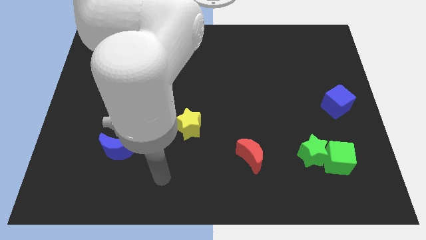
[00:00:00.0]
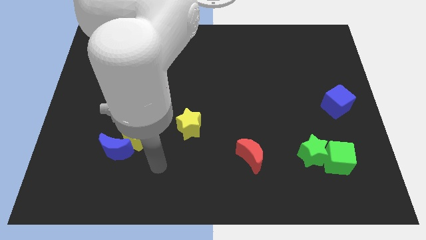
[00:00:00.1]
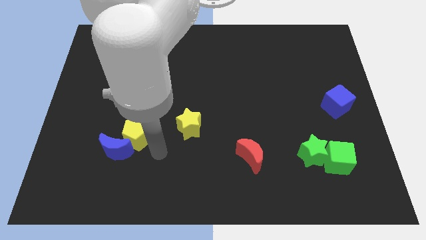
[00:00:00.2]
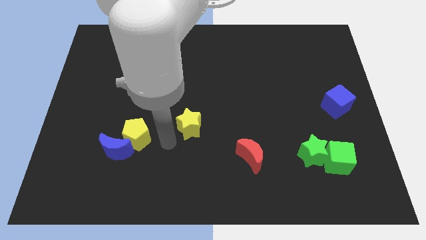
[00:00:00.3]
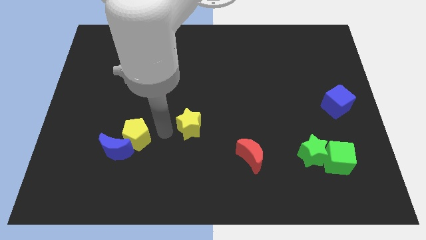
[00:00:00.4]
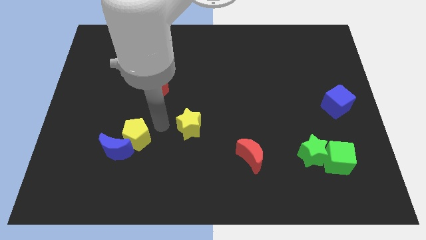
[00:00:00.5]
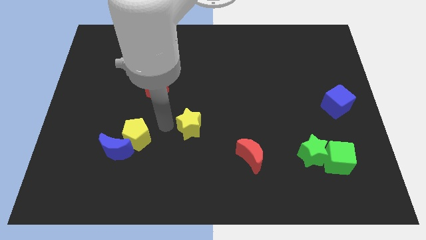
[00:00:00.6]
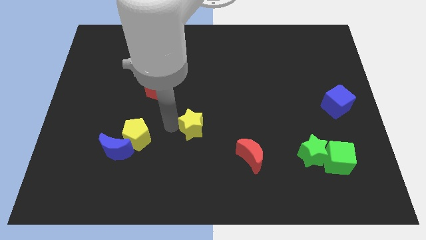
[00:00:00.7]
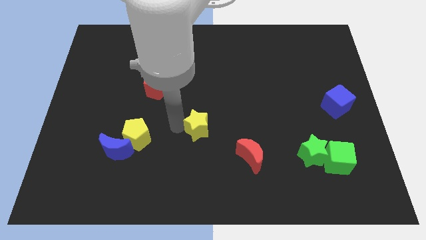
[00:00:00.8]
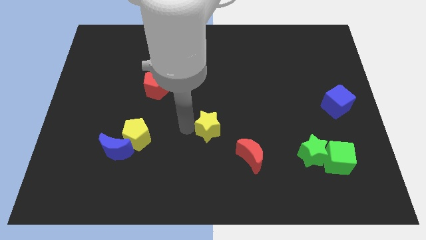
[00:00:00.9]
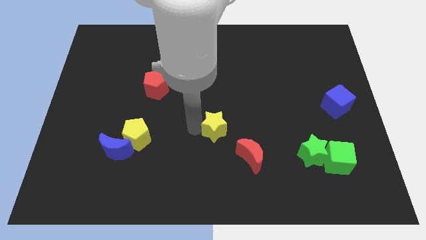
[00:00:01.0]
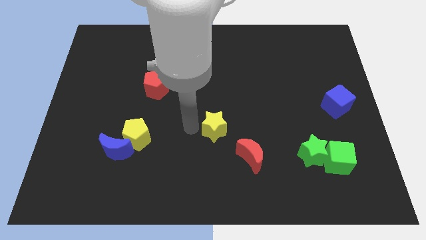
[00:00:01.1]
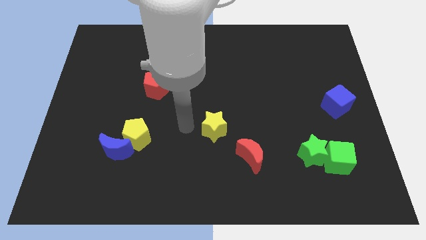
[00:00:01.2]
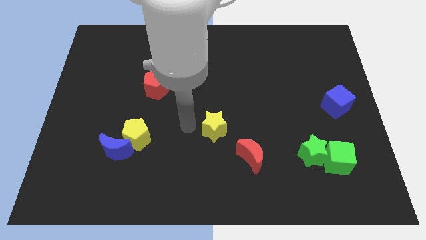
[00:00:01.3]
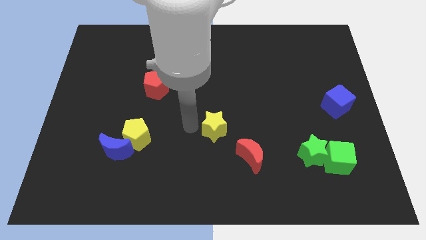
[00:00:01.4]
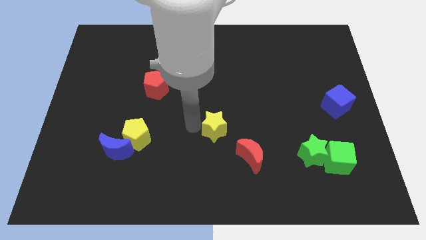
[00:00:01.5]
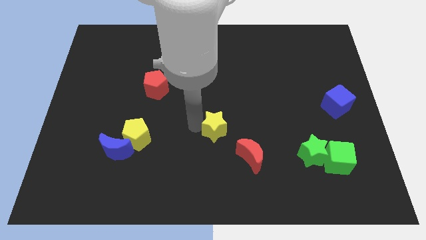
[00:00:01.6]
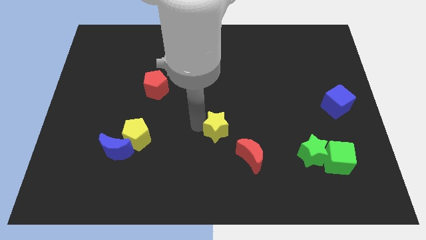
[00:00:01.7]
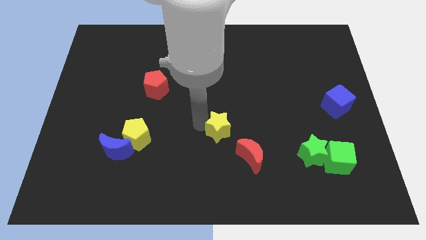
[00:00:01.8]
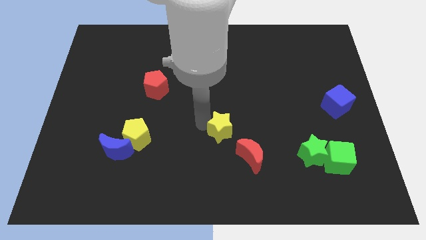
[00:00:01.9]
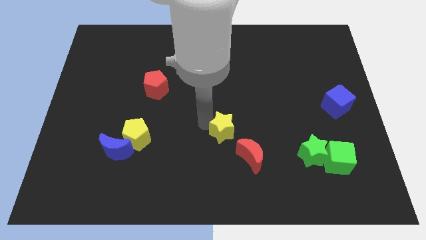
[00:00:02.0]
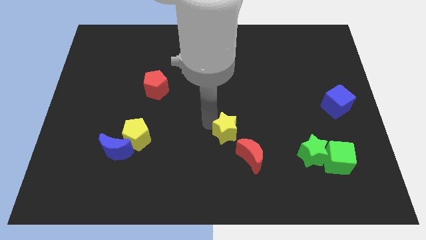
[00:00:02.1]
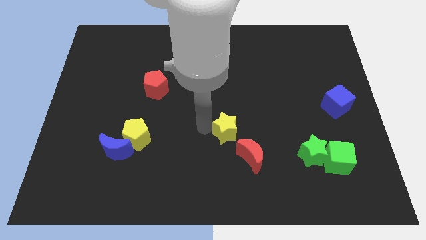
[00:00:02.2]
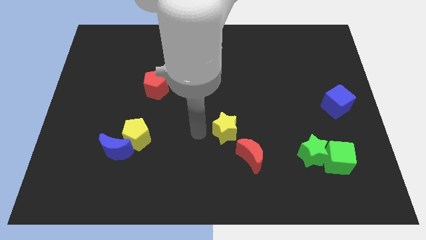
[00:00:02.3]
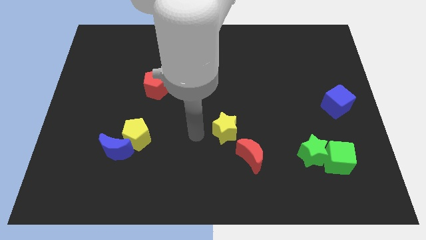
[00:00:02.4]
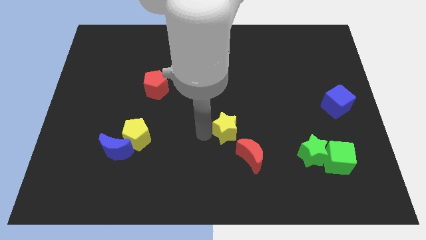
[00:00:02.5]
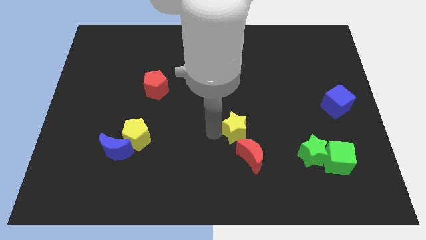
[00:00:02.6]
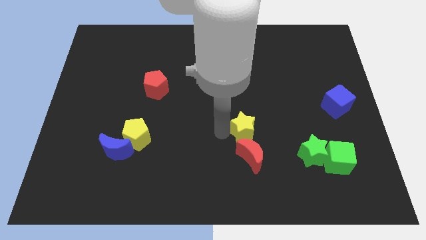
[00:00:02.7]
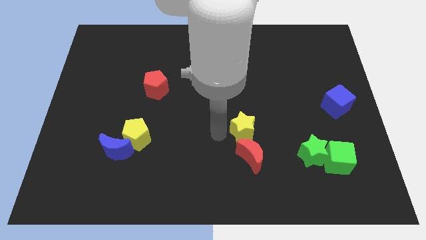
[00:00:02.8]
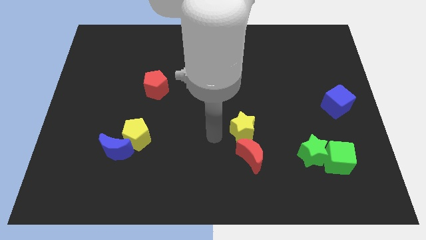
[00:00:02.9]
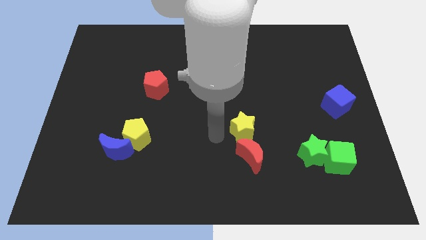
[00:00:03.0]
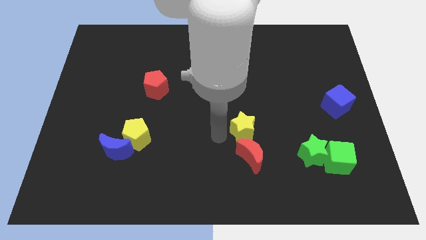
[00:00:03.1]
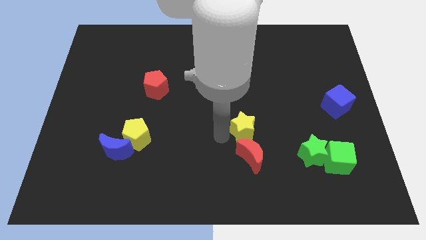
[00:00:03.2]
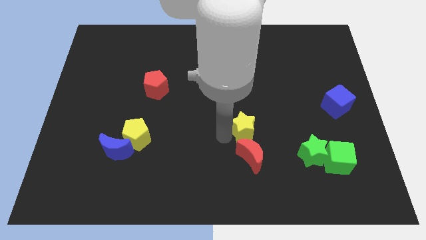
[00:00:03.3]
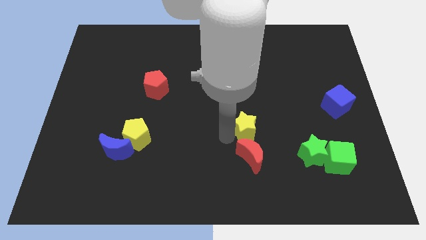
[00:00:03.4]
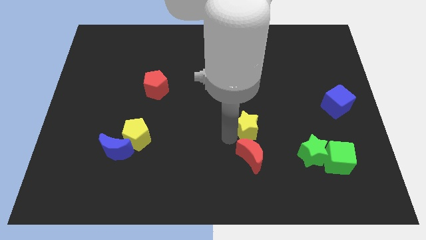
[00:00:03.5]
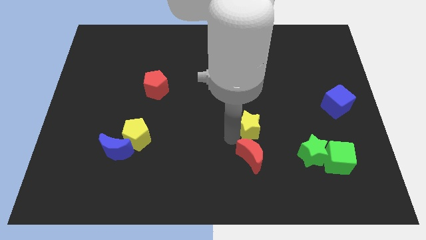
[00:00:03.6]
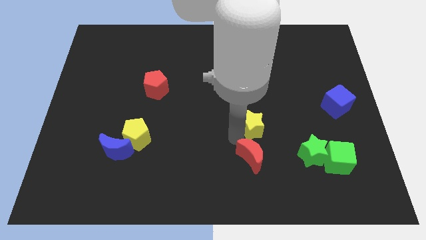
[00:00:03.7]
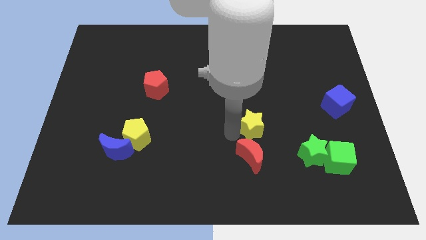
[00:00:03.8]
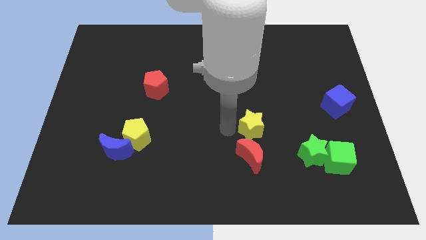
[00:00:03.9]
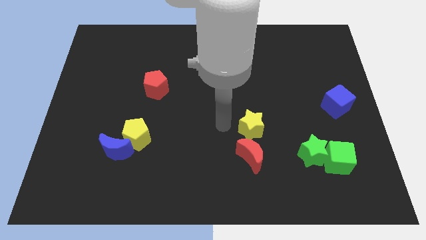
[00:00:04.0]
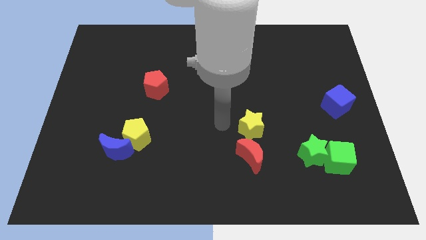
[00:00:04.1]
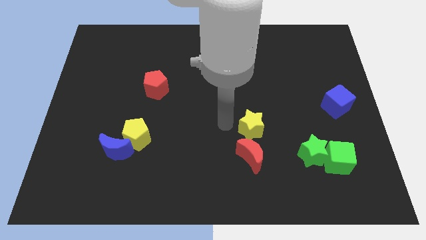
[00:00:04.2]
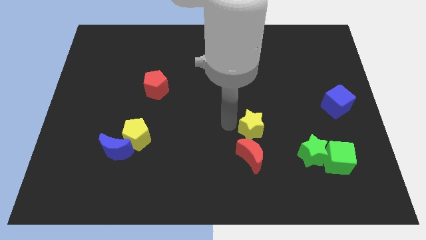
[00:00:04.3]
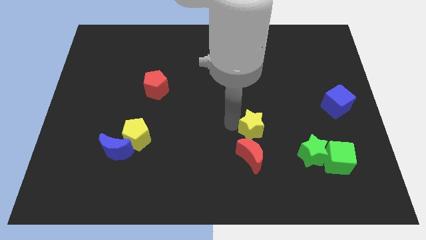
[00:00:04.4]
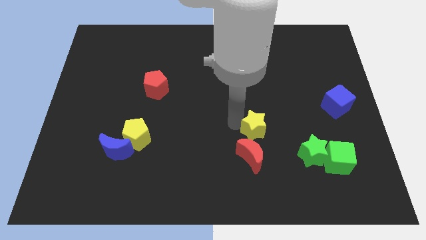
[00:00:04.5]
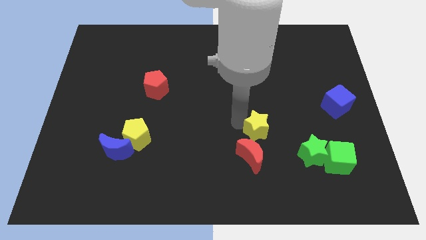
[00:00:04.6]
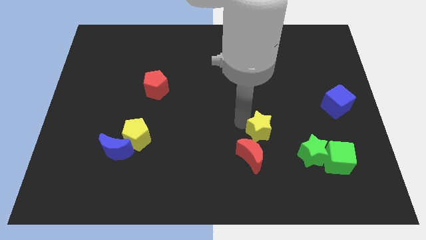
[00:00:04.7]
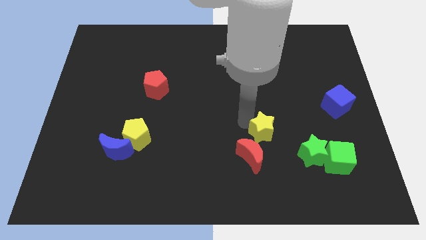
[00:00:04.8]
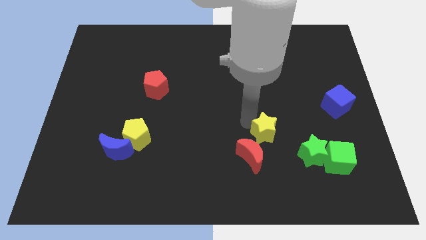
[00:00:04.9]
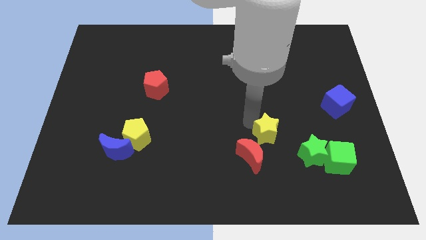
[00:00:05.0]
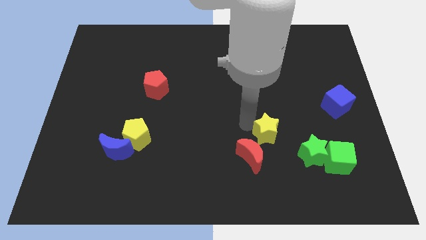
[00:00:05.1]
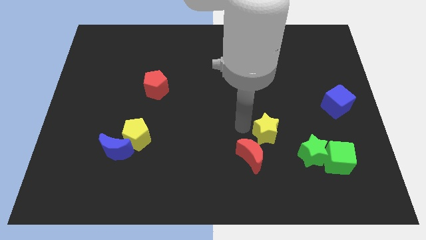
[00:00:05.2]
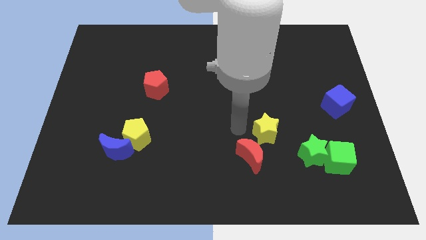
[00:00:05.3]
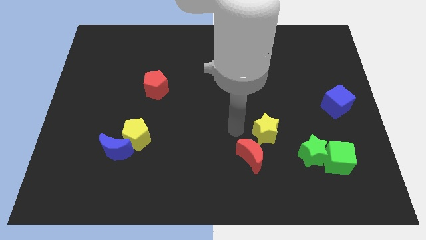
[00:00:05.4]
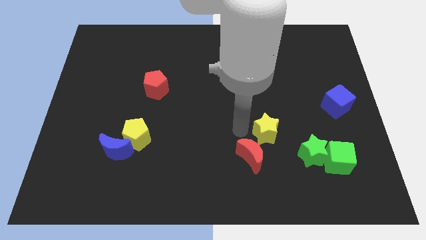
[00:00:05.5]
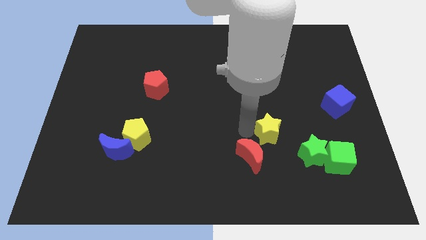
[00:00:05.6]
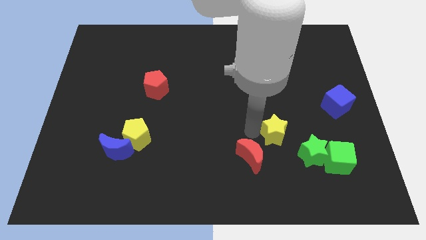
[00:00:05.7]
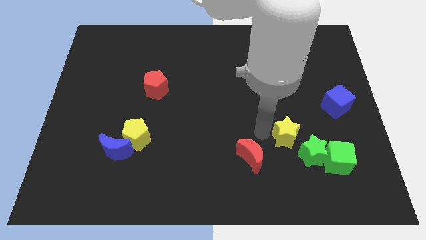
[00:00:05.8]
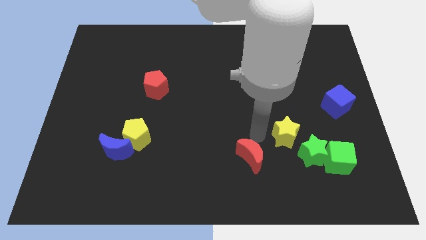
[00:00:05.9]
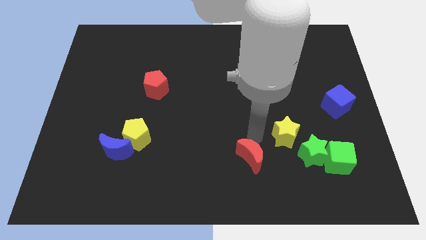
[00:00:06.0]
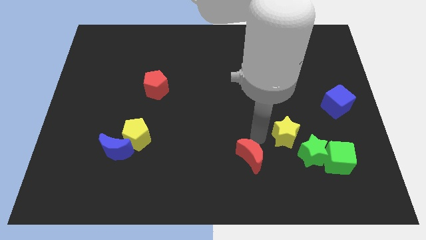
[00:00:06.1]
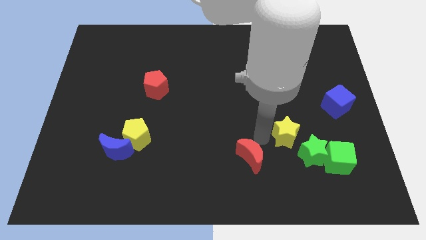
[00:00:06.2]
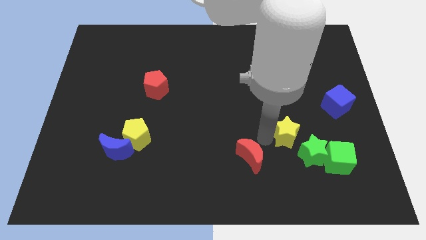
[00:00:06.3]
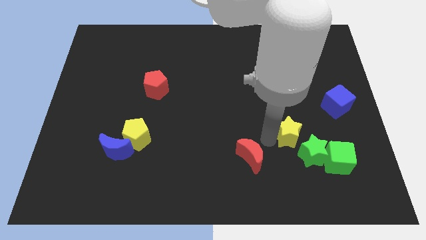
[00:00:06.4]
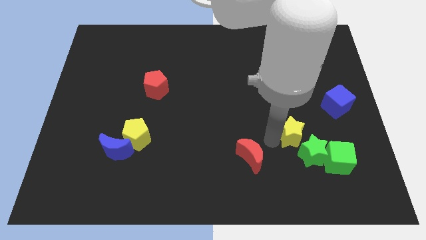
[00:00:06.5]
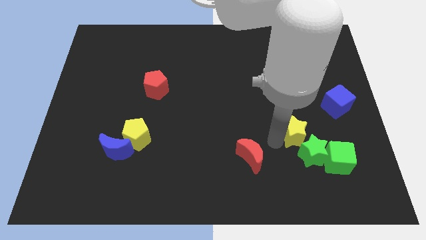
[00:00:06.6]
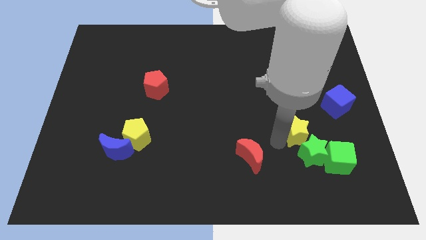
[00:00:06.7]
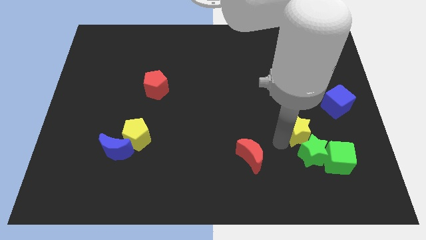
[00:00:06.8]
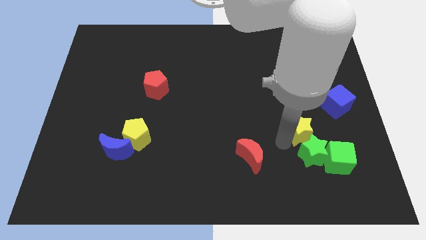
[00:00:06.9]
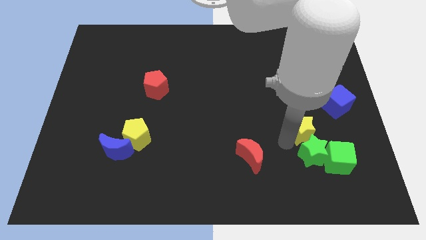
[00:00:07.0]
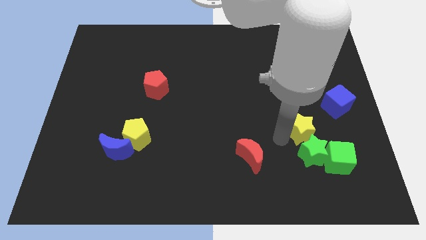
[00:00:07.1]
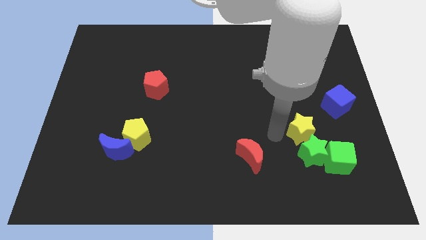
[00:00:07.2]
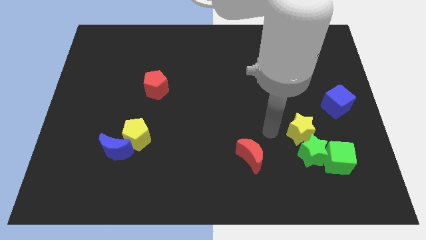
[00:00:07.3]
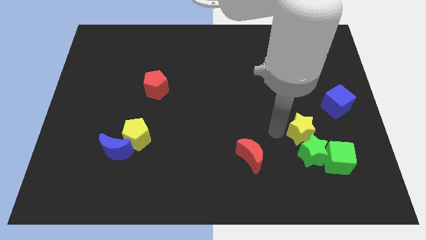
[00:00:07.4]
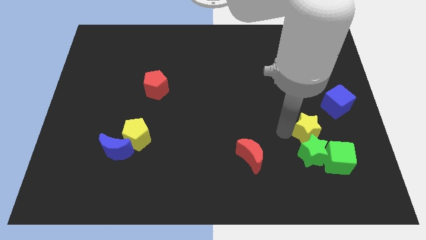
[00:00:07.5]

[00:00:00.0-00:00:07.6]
move the yellow star diagonally up and to the right of the green star
